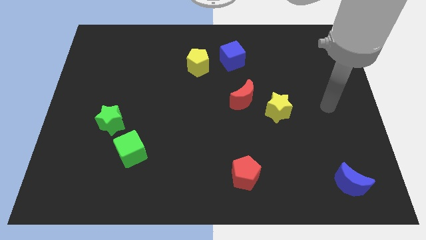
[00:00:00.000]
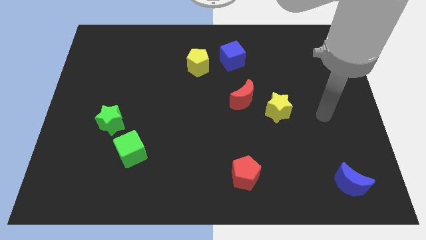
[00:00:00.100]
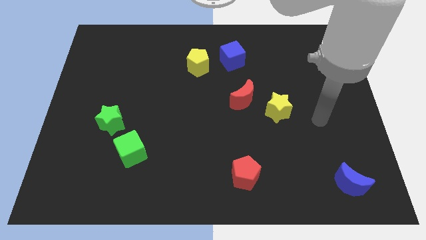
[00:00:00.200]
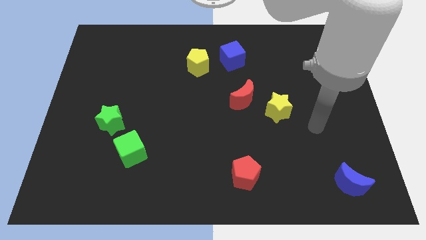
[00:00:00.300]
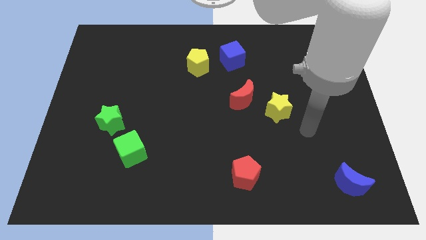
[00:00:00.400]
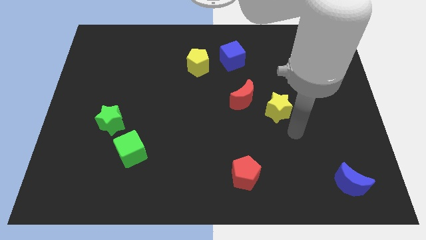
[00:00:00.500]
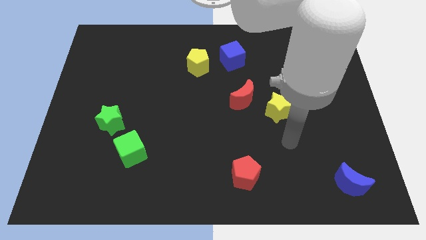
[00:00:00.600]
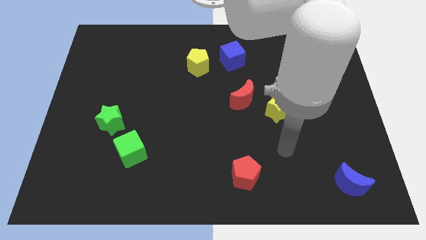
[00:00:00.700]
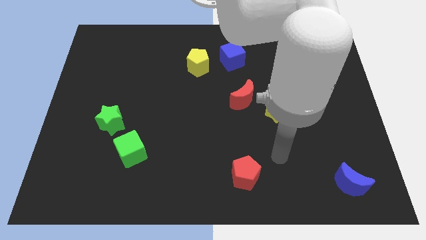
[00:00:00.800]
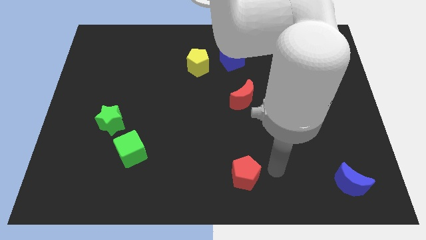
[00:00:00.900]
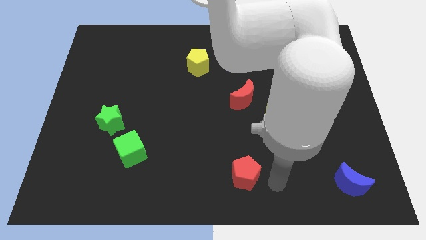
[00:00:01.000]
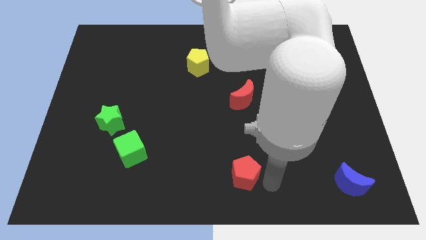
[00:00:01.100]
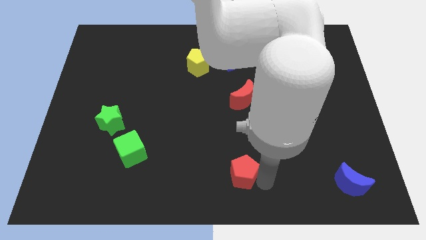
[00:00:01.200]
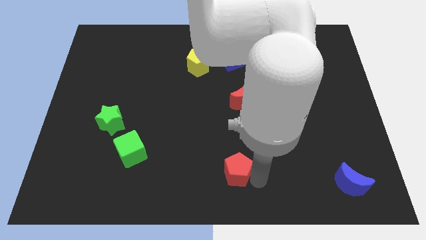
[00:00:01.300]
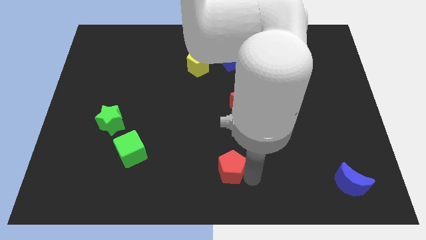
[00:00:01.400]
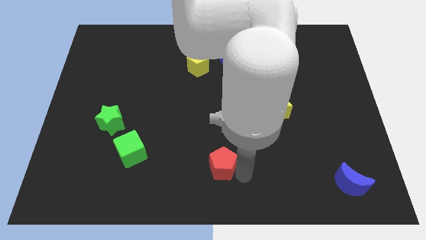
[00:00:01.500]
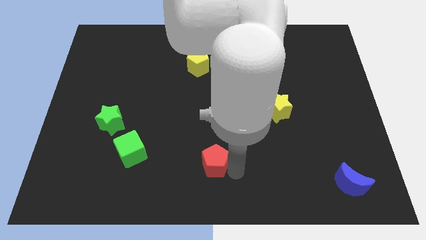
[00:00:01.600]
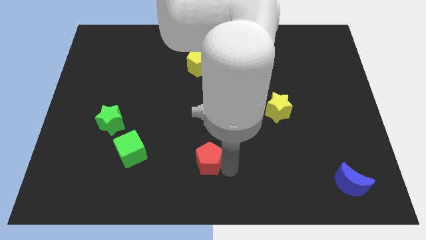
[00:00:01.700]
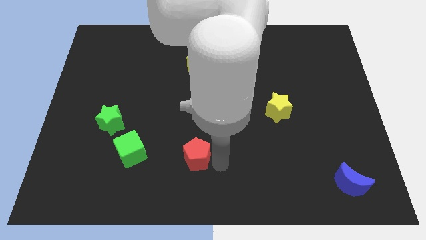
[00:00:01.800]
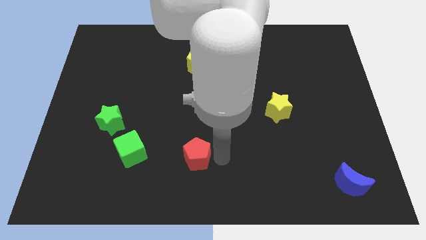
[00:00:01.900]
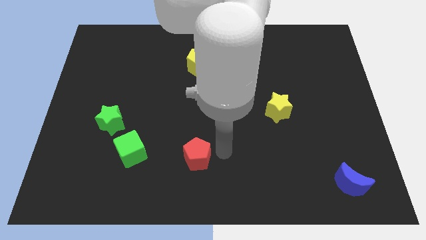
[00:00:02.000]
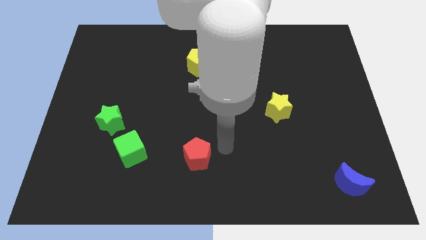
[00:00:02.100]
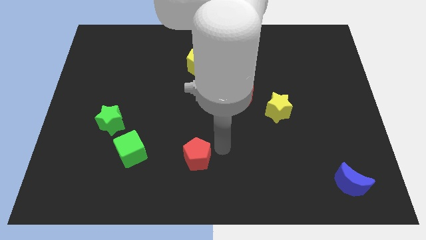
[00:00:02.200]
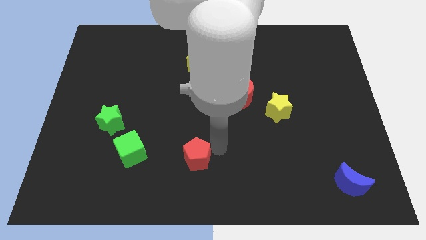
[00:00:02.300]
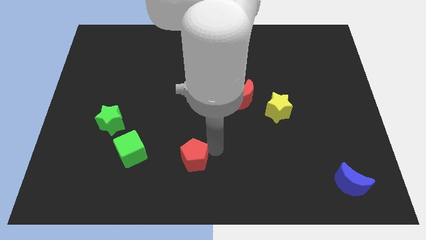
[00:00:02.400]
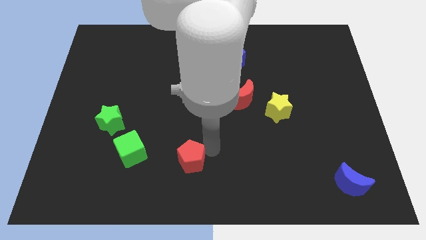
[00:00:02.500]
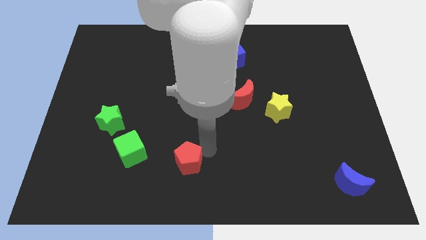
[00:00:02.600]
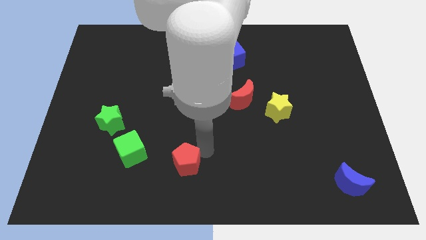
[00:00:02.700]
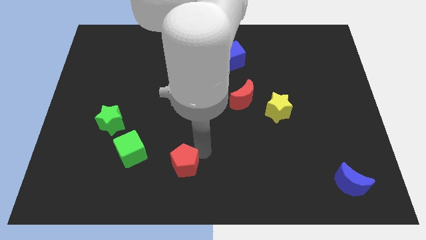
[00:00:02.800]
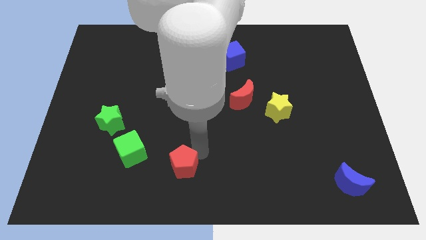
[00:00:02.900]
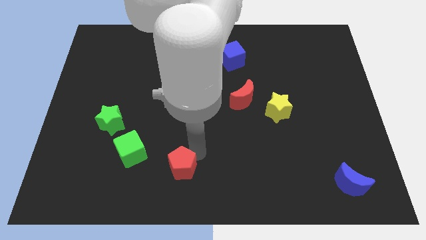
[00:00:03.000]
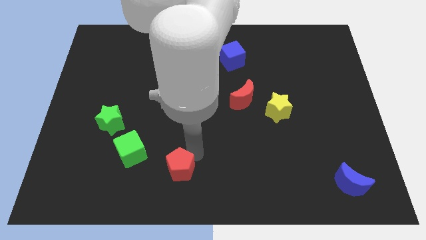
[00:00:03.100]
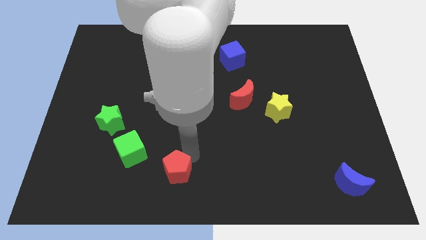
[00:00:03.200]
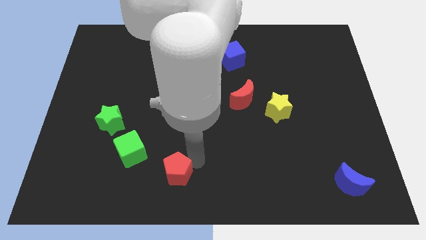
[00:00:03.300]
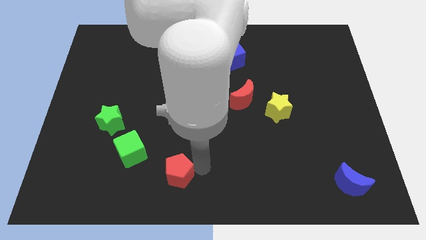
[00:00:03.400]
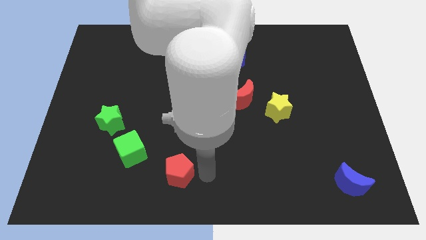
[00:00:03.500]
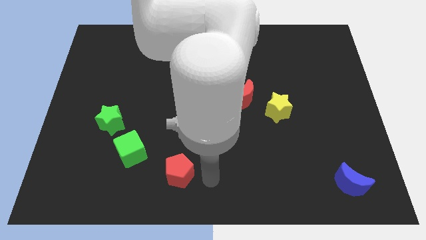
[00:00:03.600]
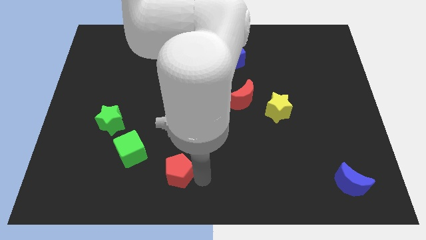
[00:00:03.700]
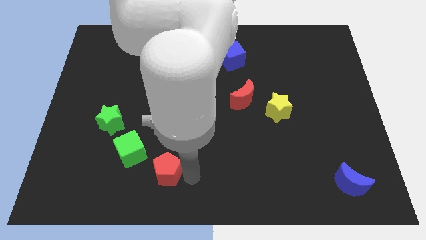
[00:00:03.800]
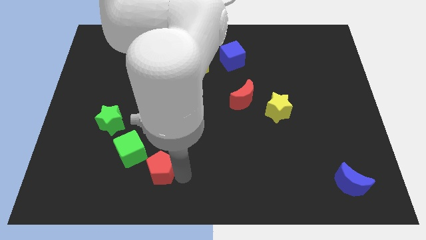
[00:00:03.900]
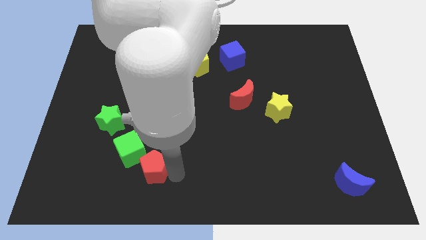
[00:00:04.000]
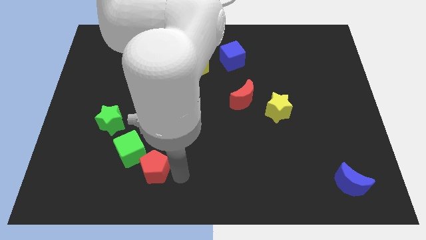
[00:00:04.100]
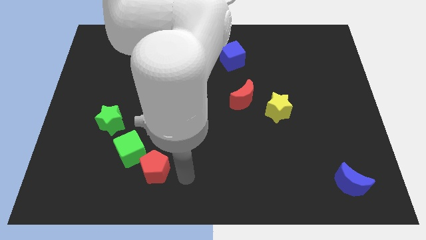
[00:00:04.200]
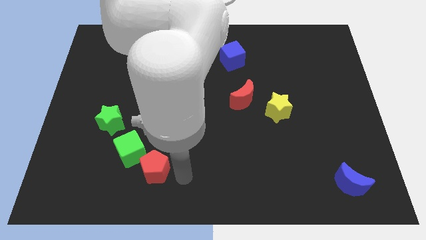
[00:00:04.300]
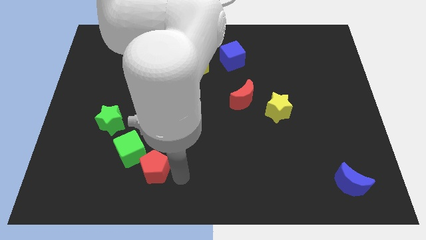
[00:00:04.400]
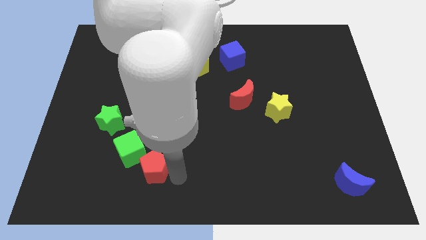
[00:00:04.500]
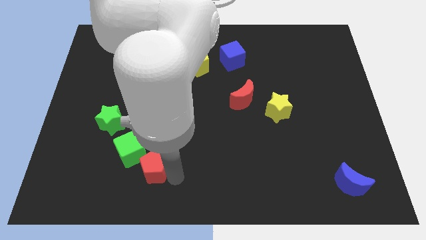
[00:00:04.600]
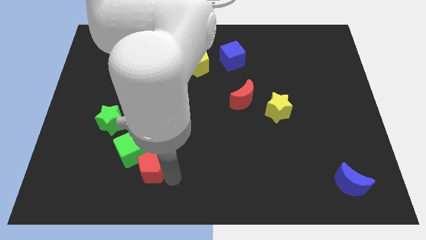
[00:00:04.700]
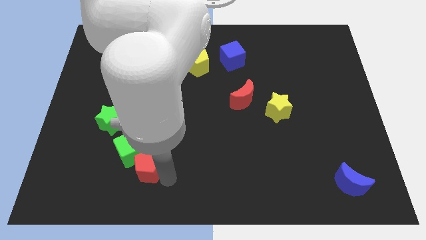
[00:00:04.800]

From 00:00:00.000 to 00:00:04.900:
slide the red pentagon to the left

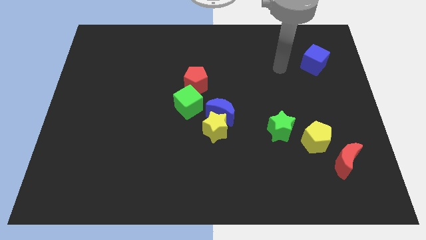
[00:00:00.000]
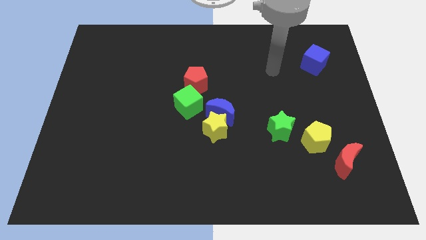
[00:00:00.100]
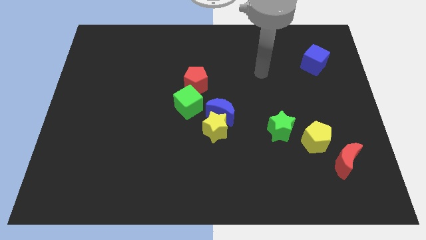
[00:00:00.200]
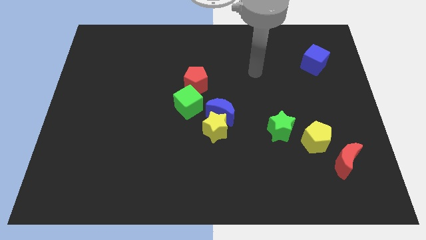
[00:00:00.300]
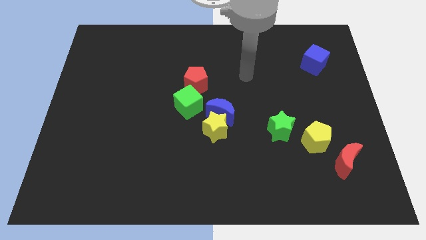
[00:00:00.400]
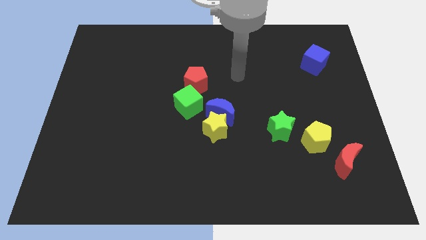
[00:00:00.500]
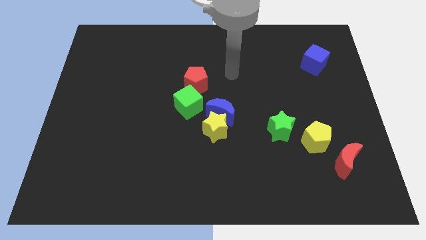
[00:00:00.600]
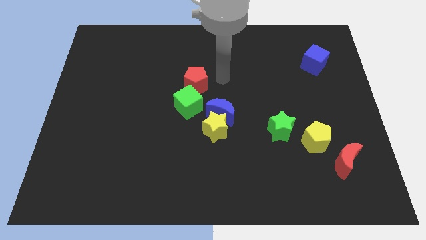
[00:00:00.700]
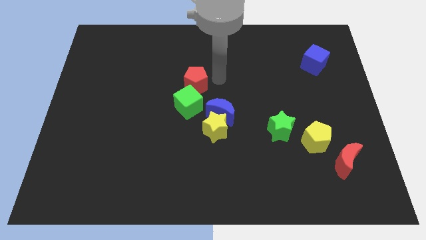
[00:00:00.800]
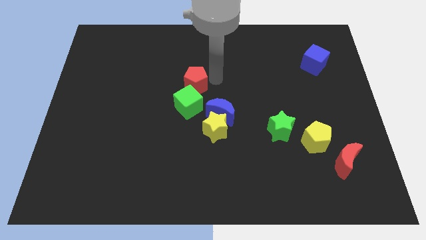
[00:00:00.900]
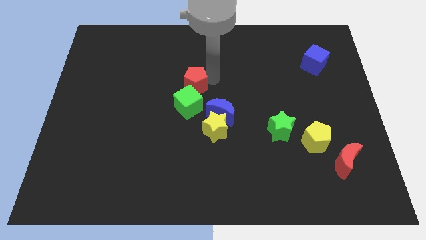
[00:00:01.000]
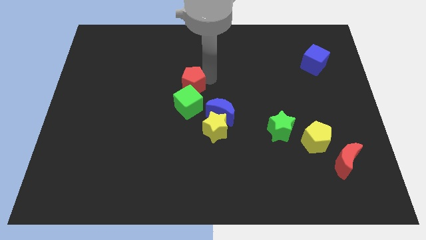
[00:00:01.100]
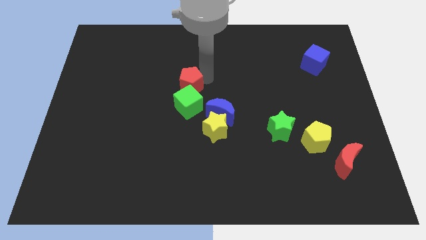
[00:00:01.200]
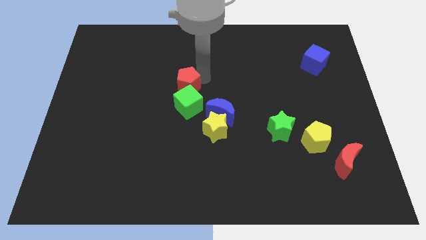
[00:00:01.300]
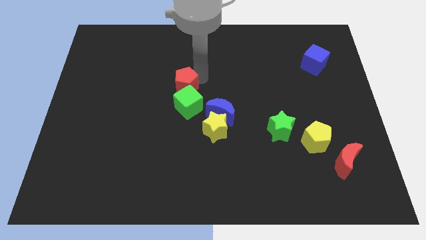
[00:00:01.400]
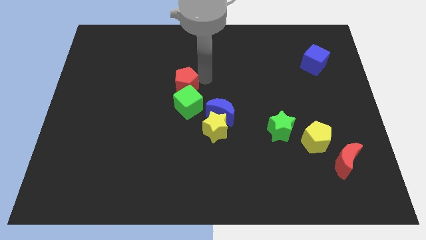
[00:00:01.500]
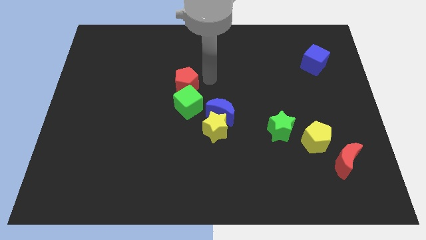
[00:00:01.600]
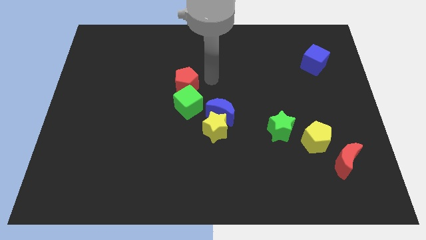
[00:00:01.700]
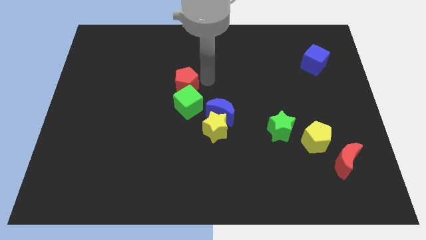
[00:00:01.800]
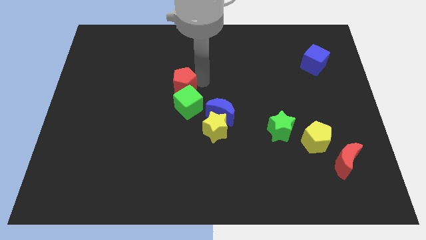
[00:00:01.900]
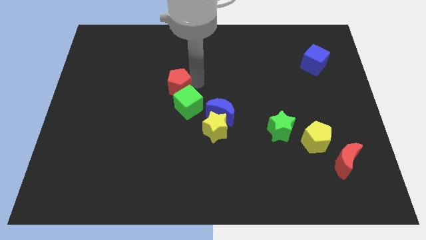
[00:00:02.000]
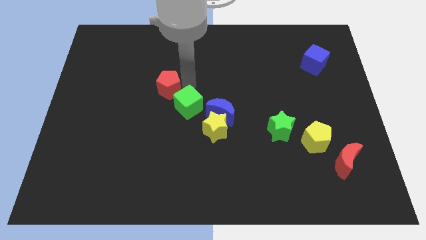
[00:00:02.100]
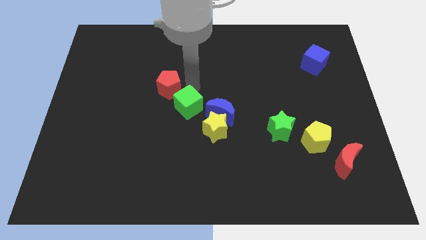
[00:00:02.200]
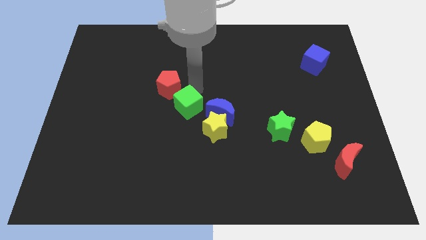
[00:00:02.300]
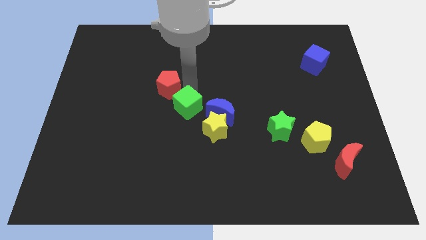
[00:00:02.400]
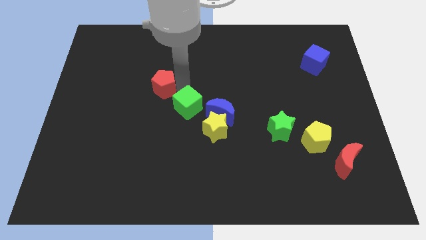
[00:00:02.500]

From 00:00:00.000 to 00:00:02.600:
move the red pentagon to the left somewhat

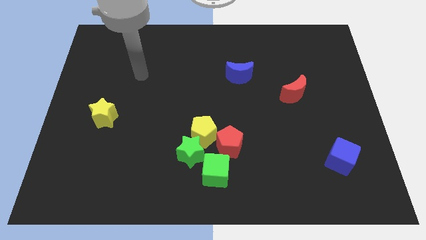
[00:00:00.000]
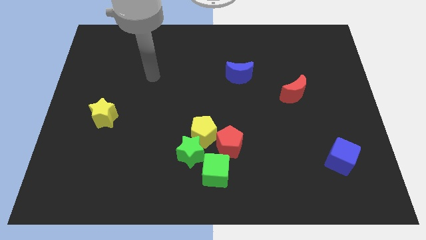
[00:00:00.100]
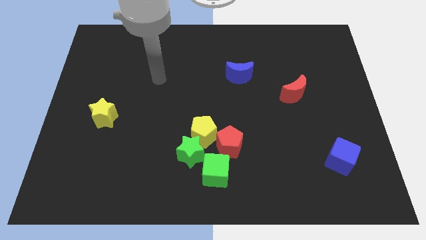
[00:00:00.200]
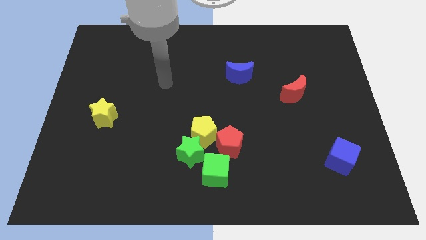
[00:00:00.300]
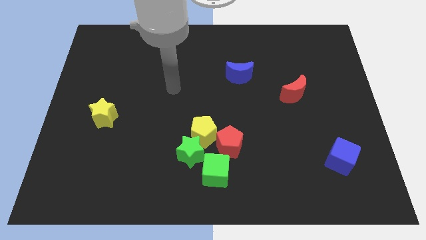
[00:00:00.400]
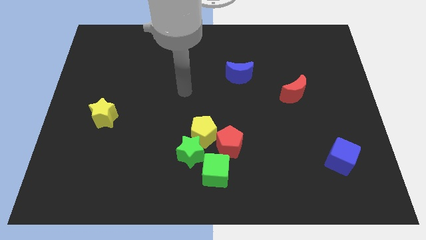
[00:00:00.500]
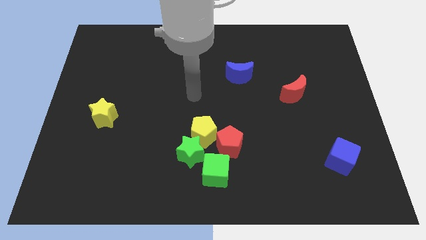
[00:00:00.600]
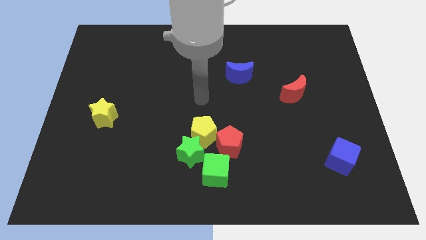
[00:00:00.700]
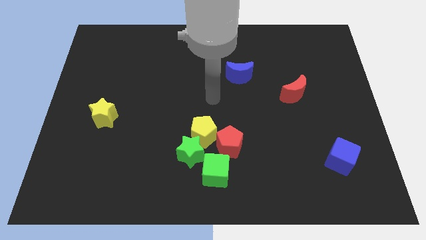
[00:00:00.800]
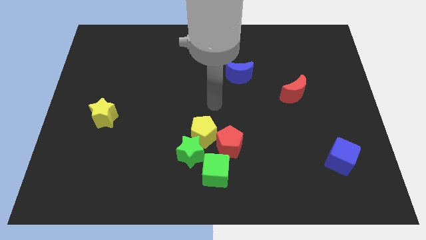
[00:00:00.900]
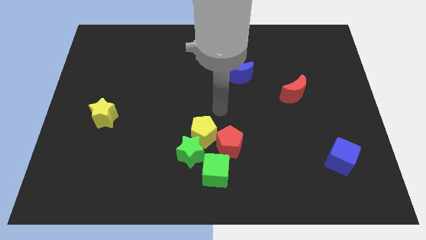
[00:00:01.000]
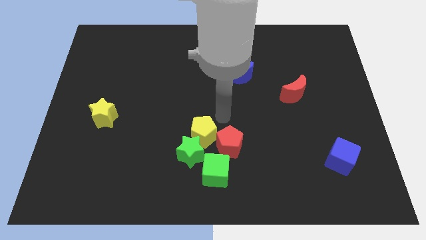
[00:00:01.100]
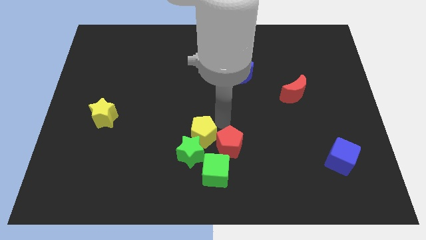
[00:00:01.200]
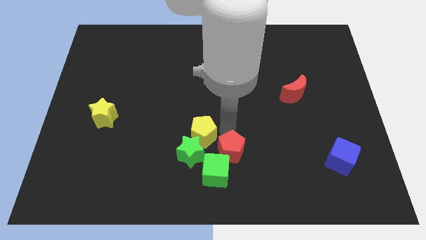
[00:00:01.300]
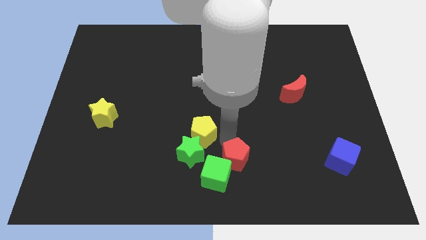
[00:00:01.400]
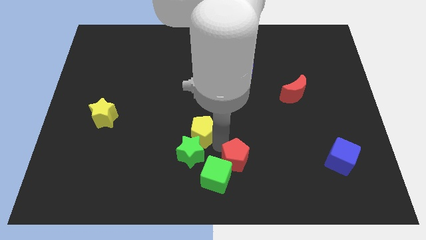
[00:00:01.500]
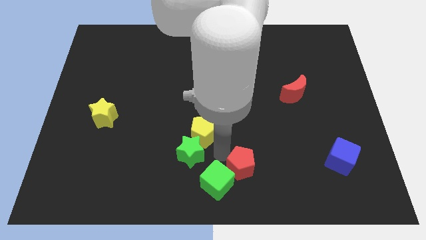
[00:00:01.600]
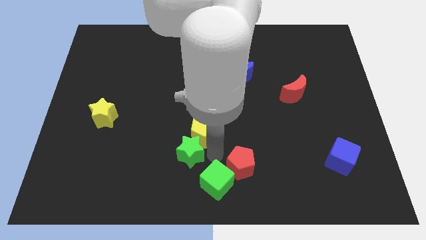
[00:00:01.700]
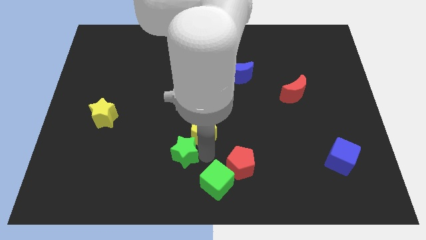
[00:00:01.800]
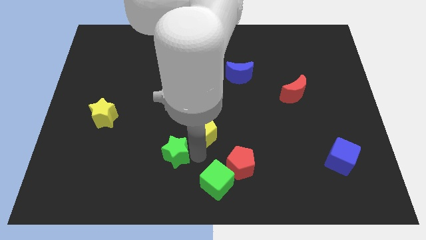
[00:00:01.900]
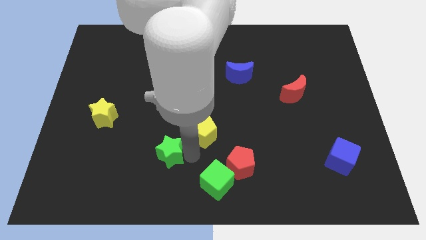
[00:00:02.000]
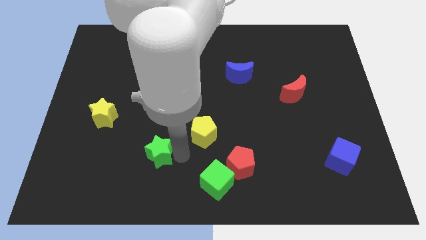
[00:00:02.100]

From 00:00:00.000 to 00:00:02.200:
slightly push the green star to the left
